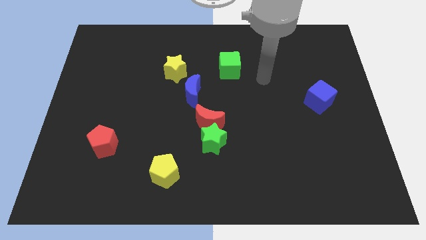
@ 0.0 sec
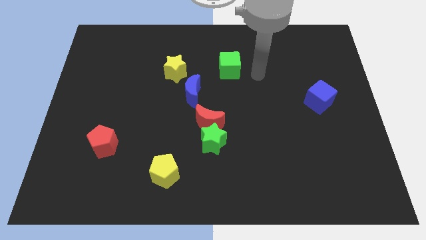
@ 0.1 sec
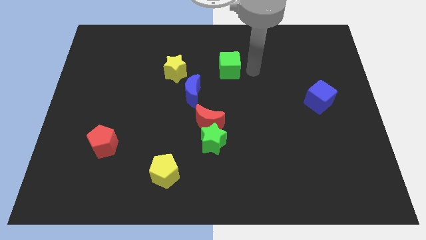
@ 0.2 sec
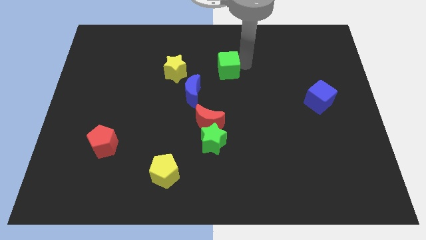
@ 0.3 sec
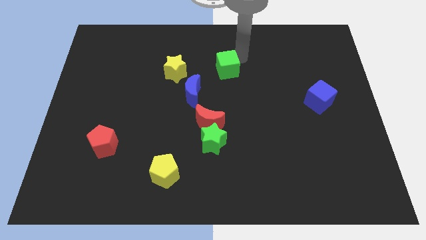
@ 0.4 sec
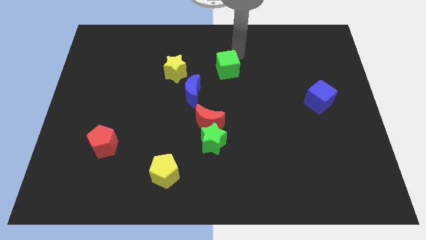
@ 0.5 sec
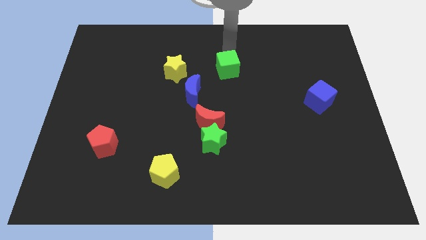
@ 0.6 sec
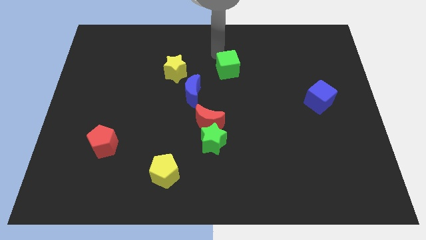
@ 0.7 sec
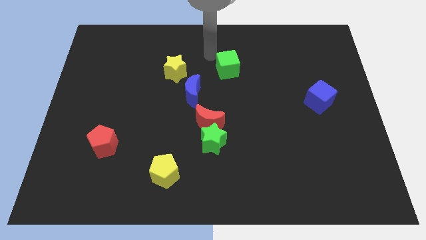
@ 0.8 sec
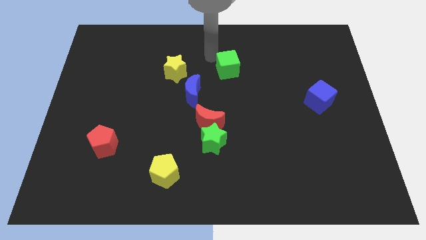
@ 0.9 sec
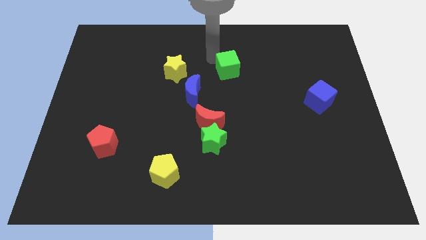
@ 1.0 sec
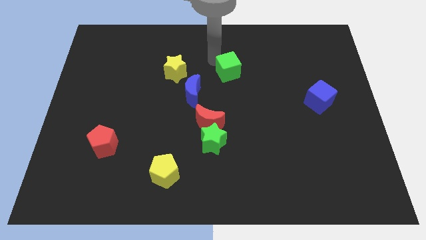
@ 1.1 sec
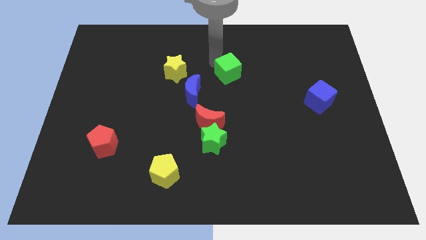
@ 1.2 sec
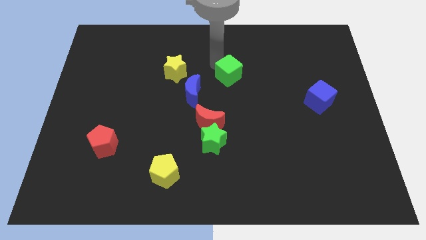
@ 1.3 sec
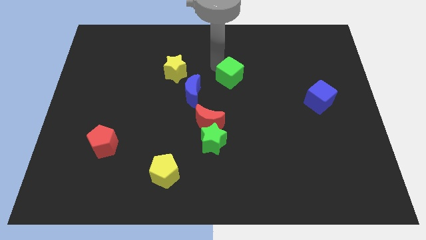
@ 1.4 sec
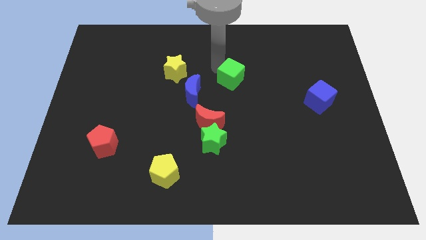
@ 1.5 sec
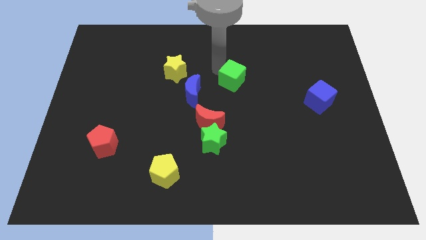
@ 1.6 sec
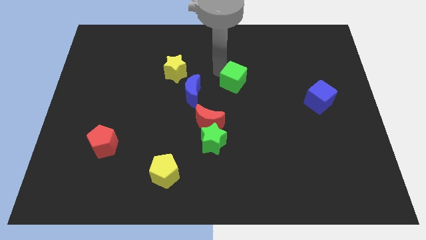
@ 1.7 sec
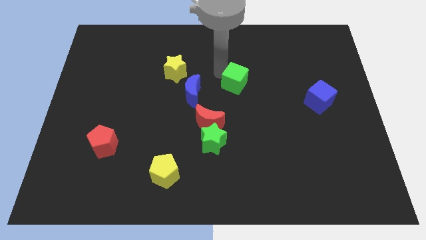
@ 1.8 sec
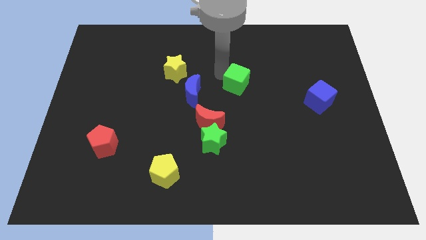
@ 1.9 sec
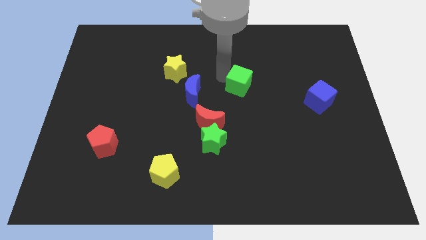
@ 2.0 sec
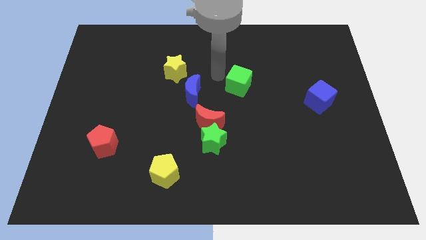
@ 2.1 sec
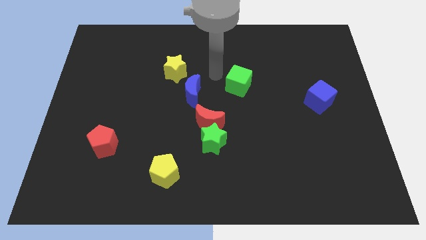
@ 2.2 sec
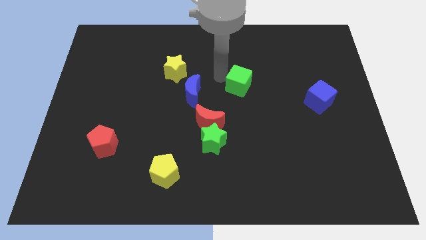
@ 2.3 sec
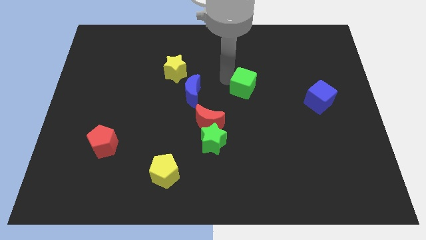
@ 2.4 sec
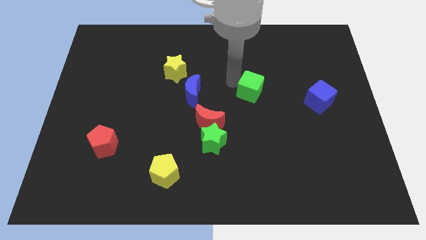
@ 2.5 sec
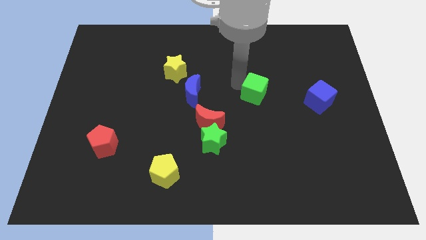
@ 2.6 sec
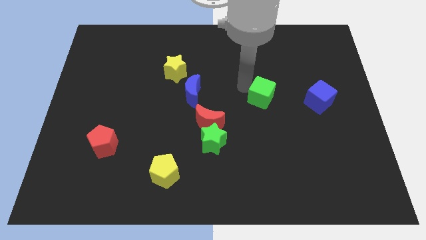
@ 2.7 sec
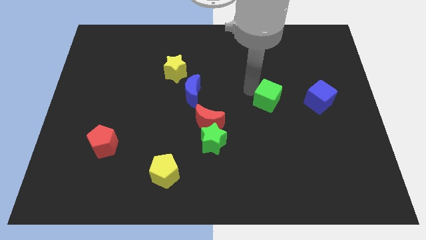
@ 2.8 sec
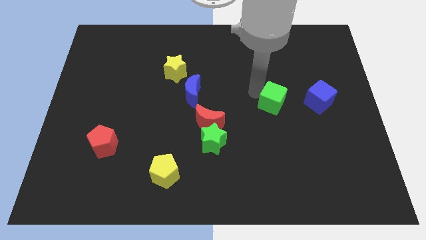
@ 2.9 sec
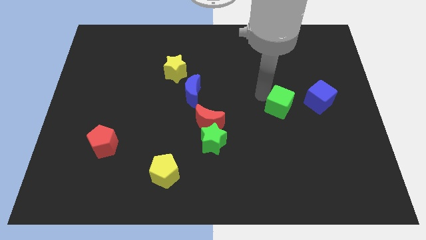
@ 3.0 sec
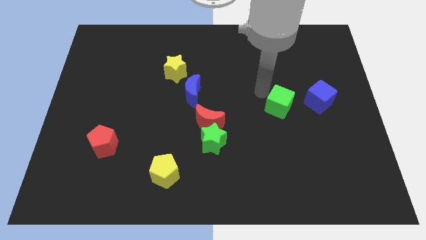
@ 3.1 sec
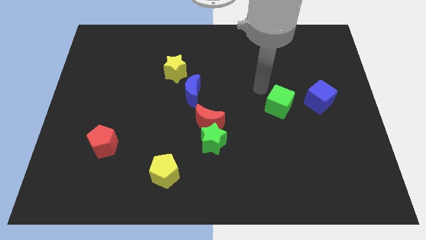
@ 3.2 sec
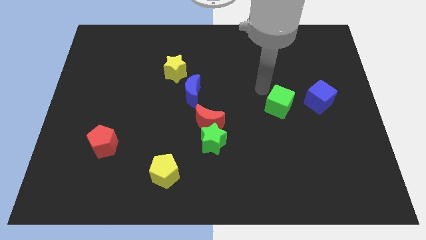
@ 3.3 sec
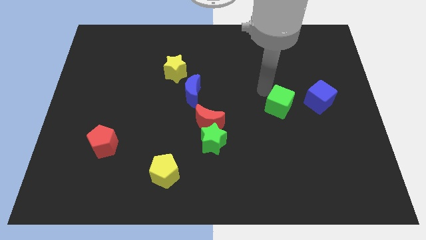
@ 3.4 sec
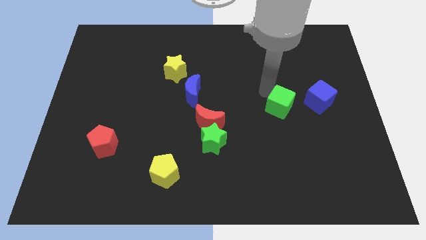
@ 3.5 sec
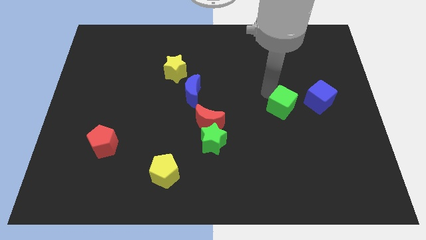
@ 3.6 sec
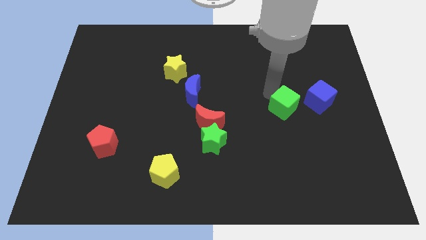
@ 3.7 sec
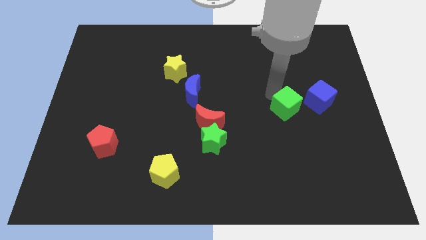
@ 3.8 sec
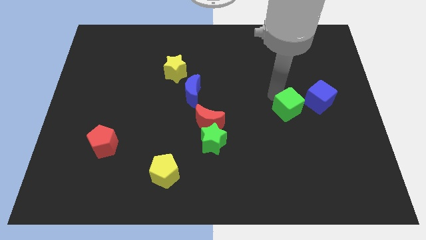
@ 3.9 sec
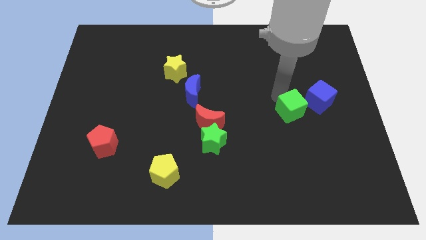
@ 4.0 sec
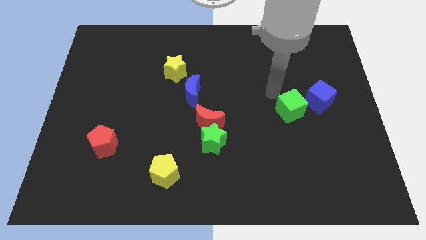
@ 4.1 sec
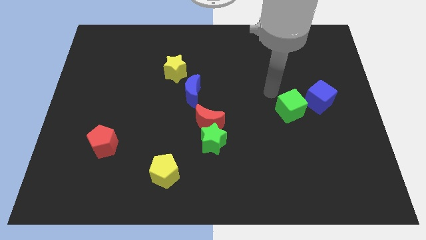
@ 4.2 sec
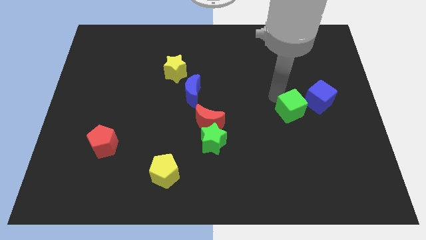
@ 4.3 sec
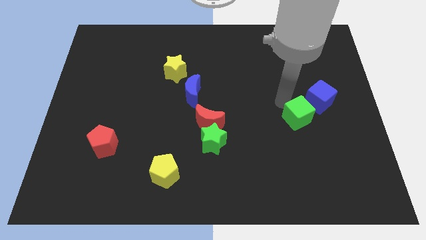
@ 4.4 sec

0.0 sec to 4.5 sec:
push the green cube down and then right

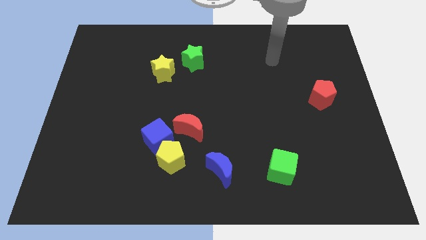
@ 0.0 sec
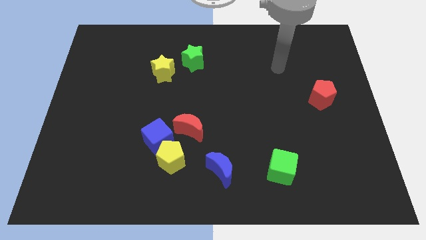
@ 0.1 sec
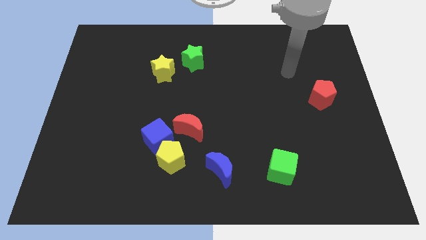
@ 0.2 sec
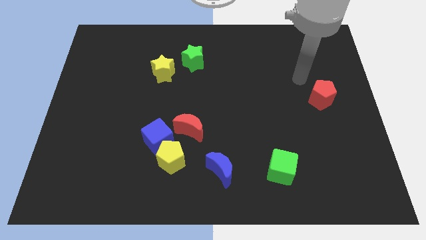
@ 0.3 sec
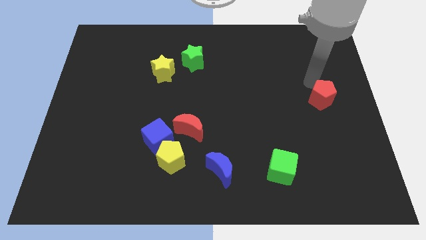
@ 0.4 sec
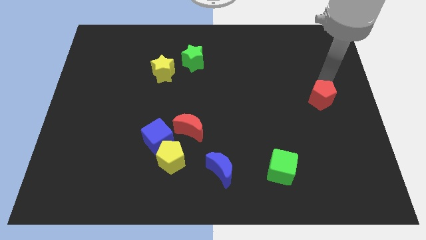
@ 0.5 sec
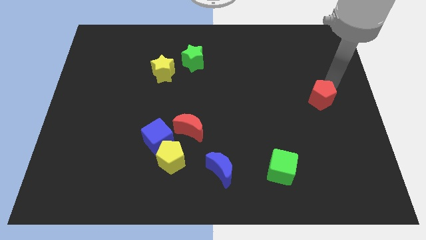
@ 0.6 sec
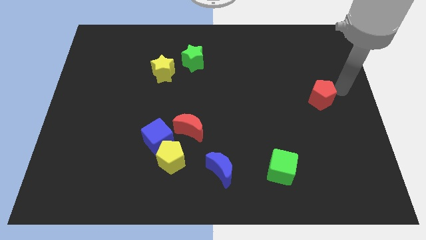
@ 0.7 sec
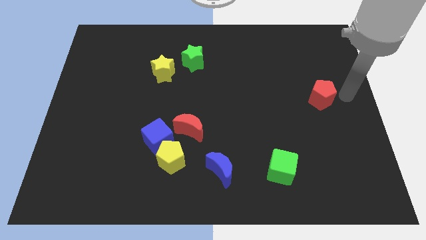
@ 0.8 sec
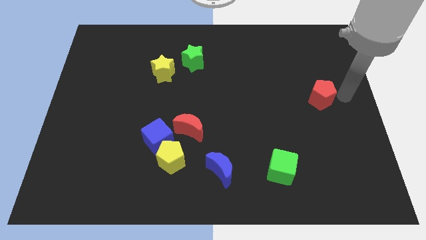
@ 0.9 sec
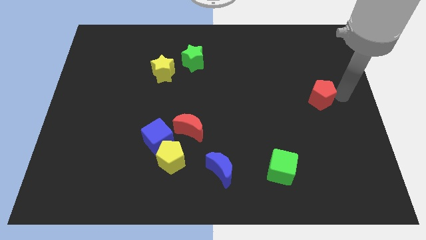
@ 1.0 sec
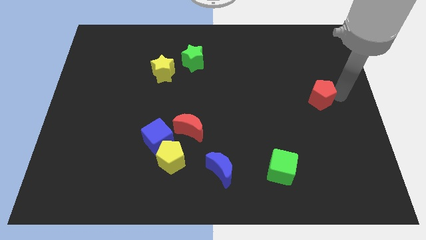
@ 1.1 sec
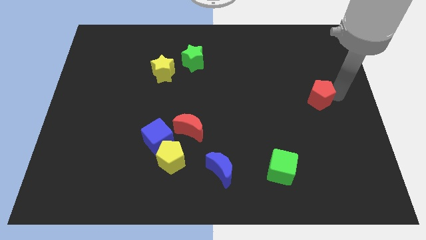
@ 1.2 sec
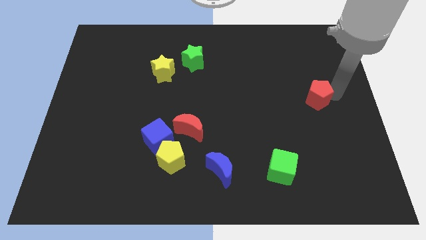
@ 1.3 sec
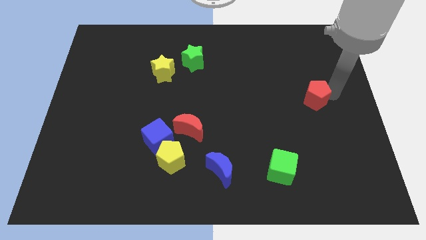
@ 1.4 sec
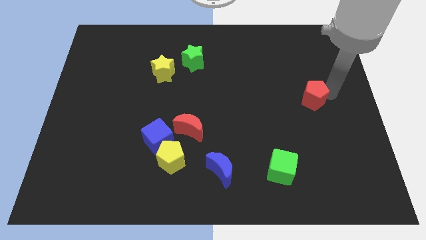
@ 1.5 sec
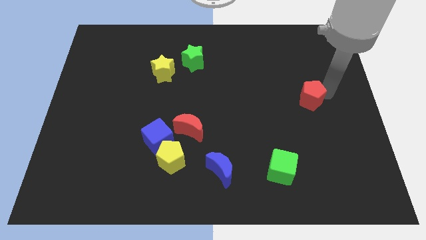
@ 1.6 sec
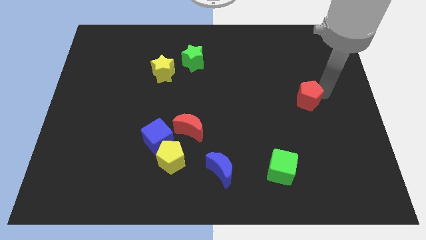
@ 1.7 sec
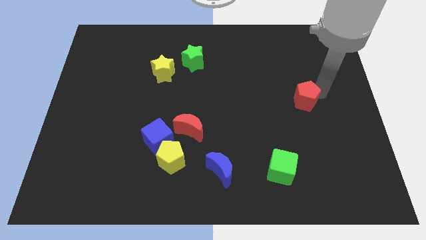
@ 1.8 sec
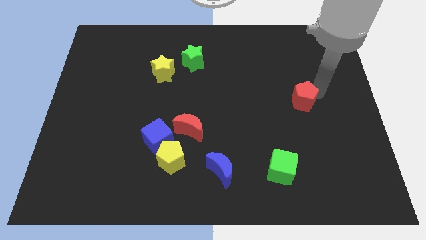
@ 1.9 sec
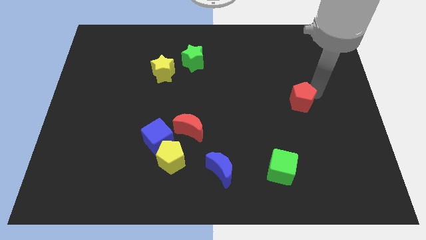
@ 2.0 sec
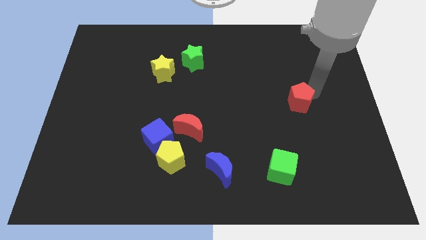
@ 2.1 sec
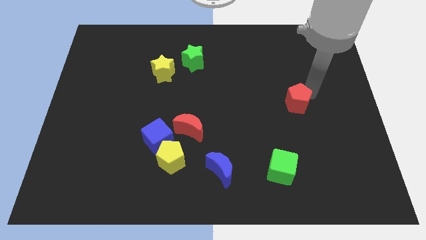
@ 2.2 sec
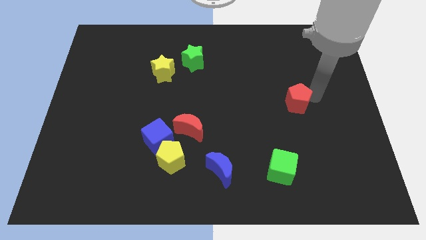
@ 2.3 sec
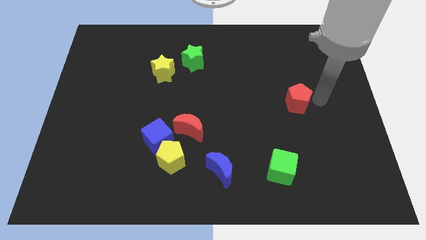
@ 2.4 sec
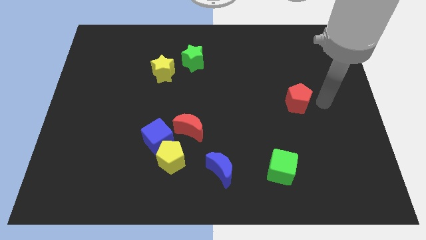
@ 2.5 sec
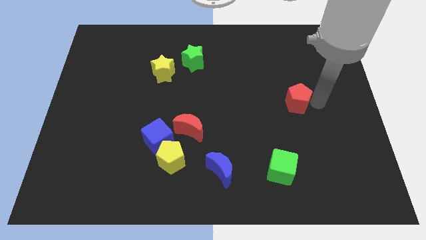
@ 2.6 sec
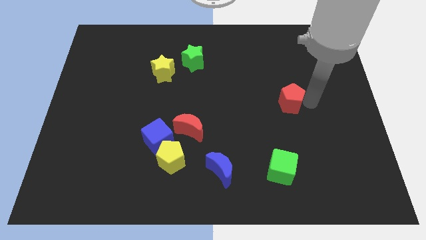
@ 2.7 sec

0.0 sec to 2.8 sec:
slightly push the red pentagon left

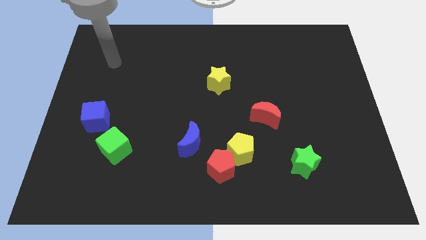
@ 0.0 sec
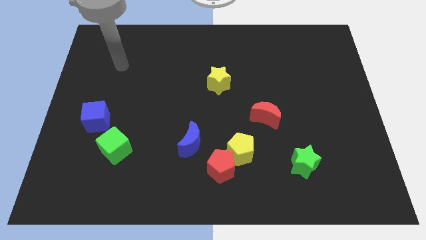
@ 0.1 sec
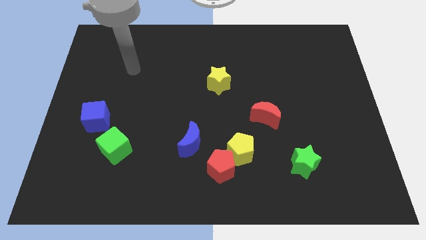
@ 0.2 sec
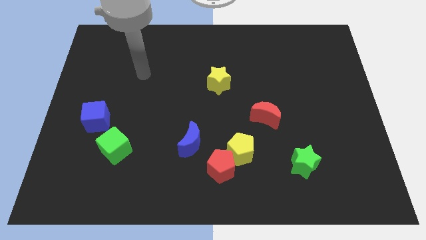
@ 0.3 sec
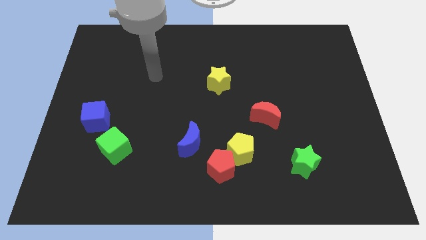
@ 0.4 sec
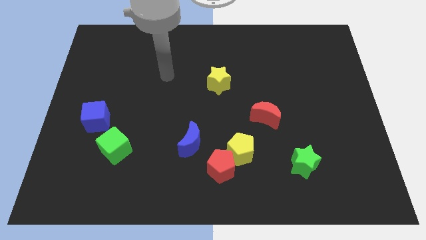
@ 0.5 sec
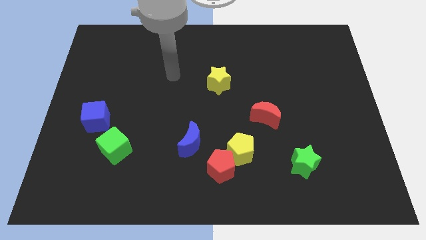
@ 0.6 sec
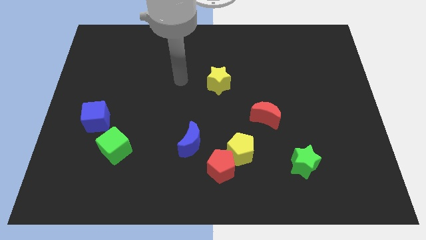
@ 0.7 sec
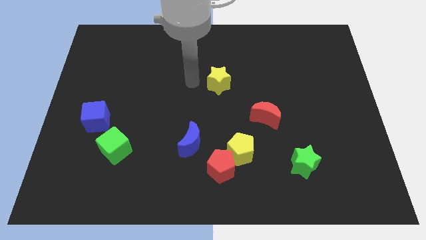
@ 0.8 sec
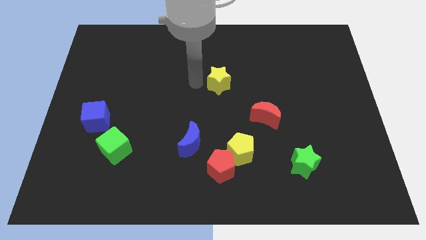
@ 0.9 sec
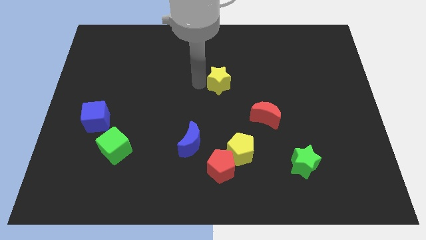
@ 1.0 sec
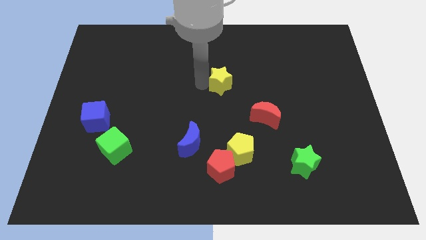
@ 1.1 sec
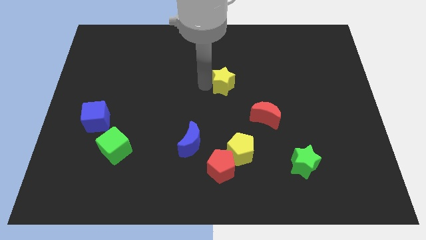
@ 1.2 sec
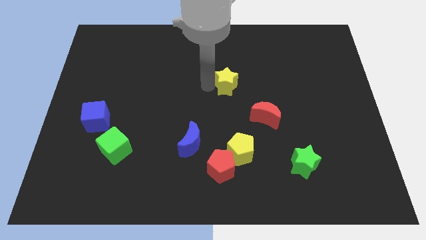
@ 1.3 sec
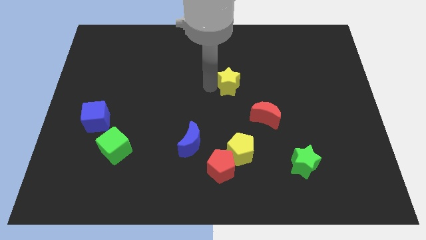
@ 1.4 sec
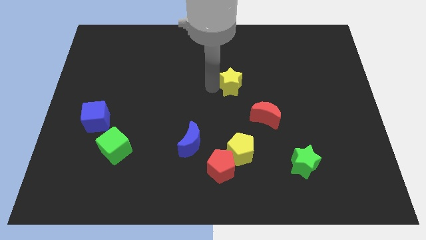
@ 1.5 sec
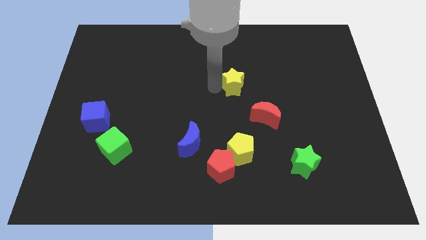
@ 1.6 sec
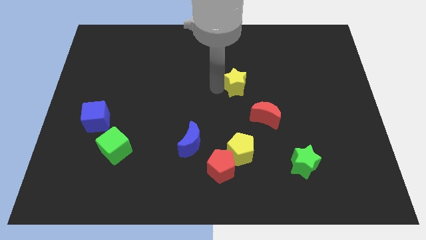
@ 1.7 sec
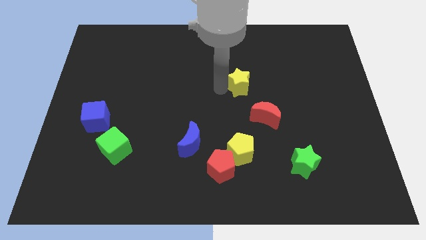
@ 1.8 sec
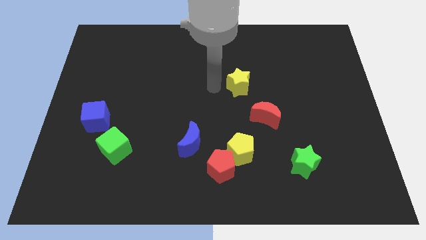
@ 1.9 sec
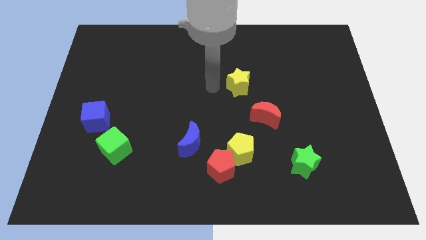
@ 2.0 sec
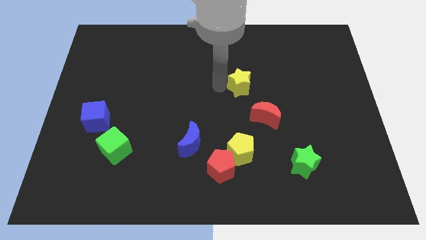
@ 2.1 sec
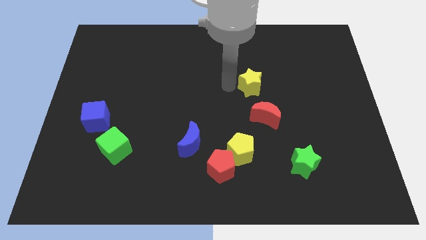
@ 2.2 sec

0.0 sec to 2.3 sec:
slide the yellow star to the right slightly
